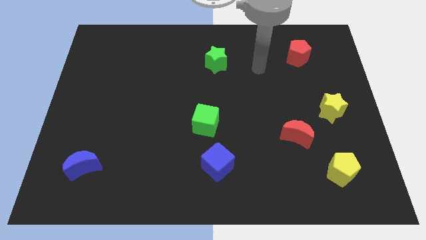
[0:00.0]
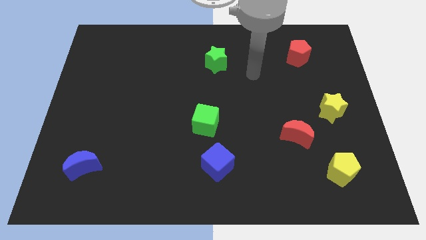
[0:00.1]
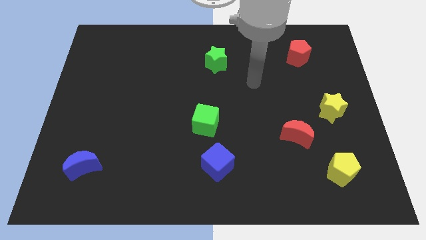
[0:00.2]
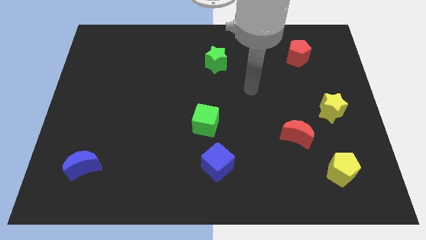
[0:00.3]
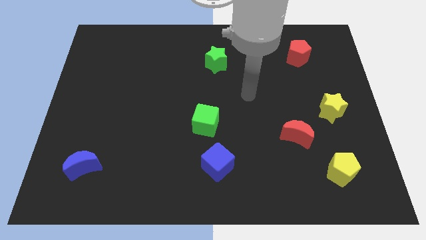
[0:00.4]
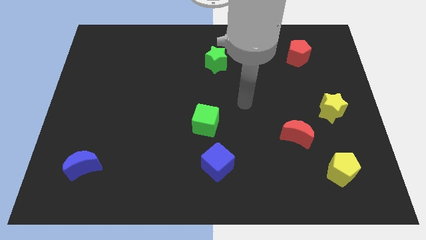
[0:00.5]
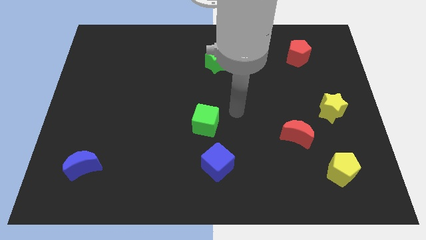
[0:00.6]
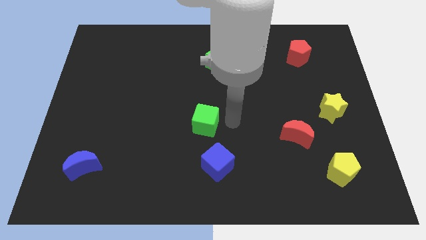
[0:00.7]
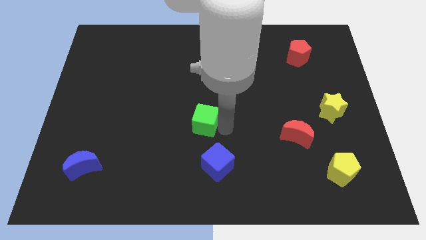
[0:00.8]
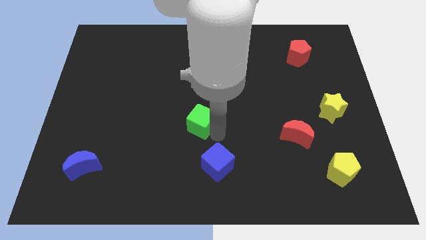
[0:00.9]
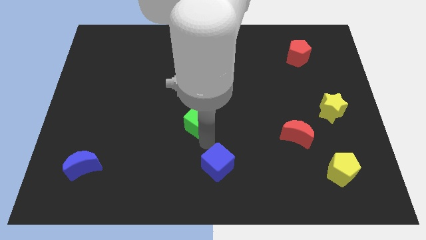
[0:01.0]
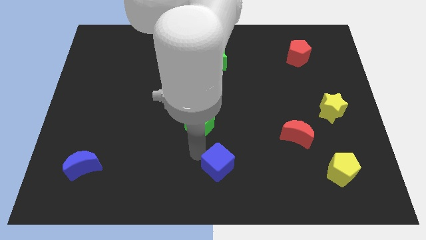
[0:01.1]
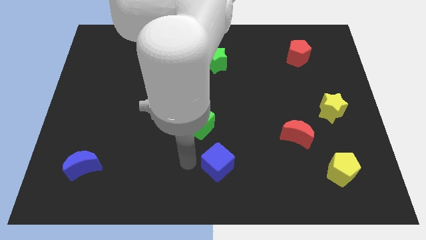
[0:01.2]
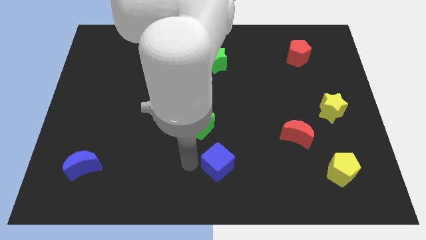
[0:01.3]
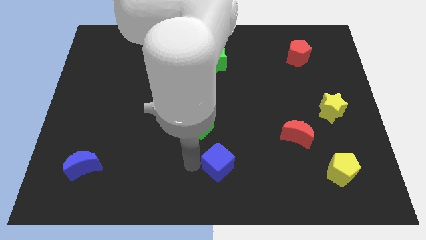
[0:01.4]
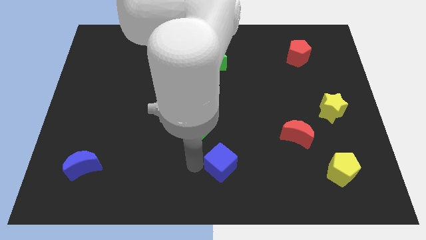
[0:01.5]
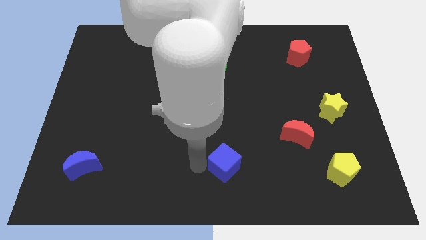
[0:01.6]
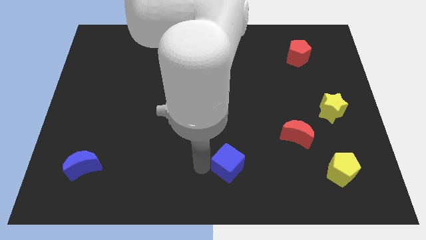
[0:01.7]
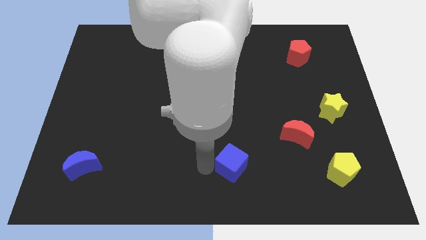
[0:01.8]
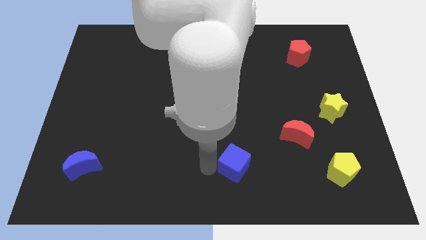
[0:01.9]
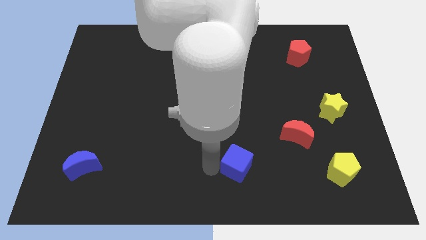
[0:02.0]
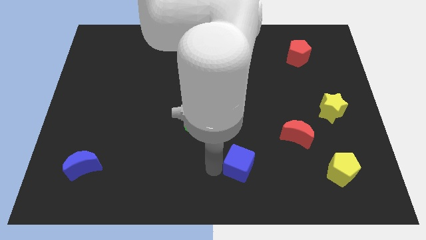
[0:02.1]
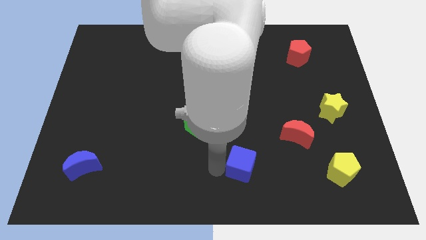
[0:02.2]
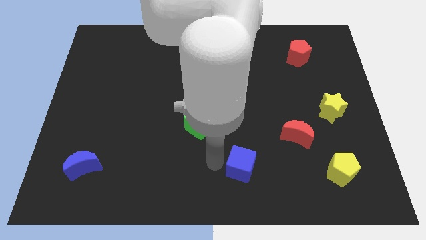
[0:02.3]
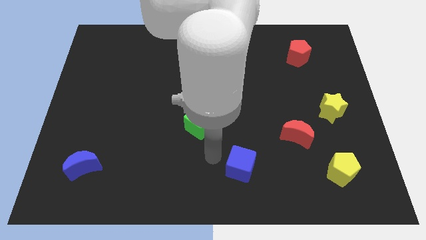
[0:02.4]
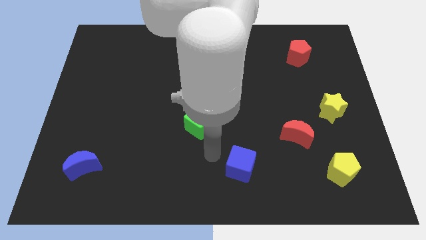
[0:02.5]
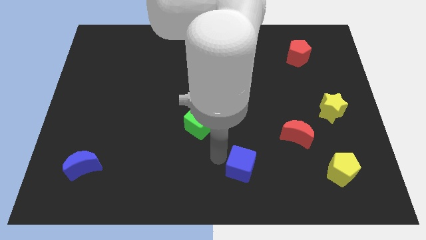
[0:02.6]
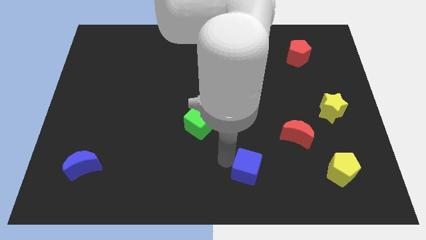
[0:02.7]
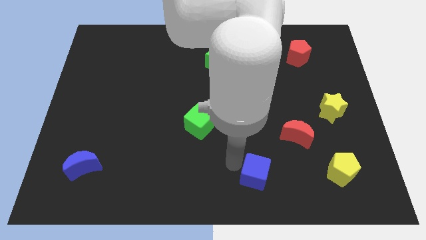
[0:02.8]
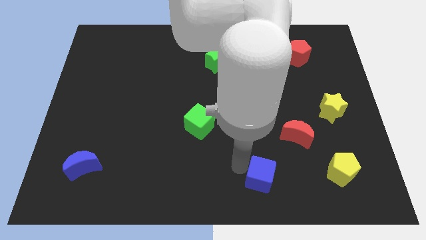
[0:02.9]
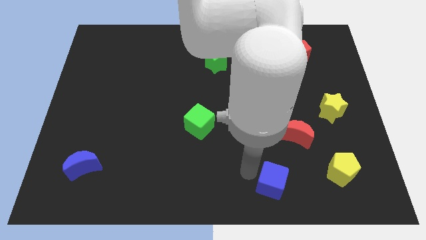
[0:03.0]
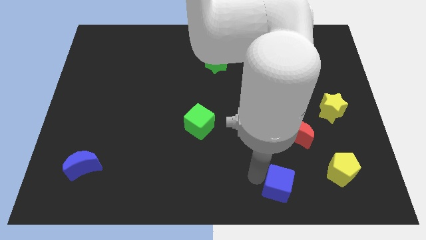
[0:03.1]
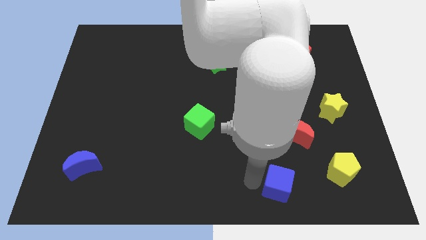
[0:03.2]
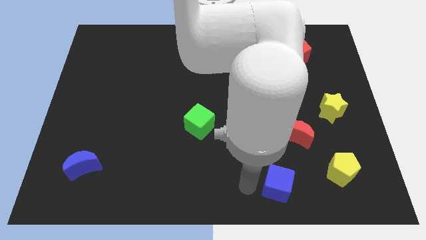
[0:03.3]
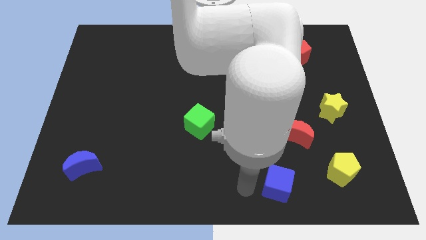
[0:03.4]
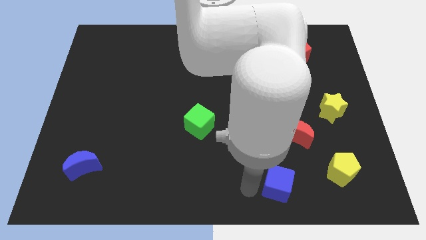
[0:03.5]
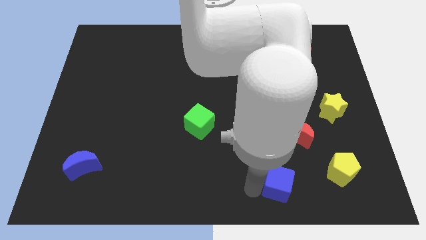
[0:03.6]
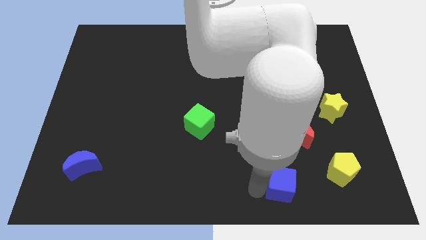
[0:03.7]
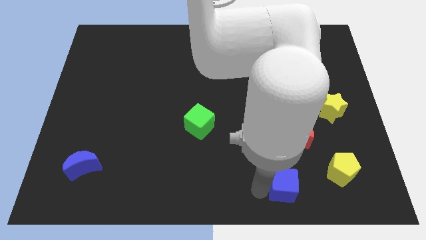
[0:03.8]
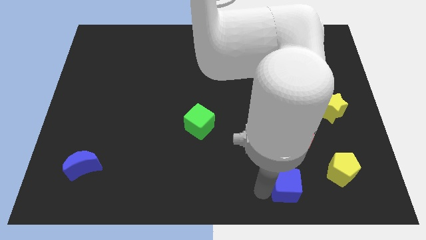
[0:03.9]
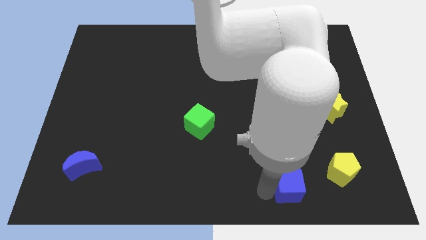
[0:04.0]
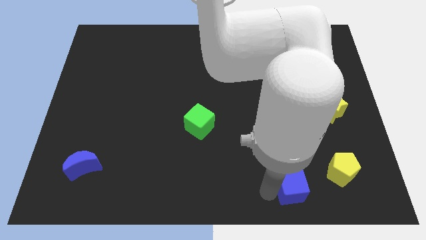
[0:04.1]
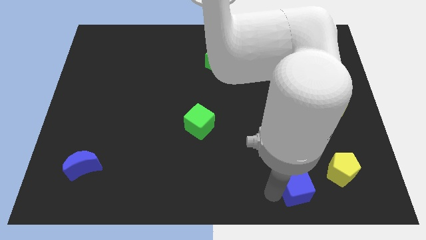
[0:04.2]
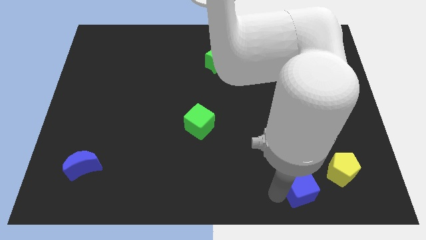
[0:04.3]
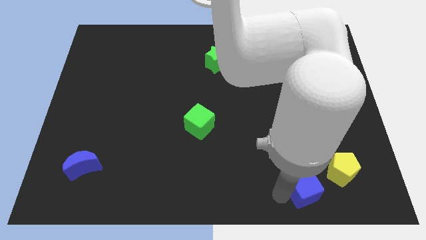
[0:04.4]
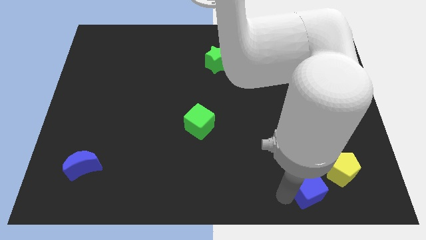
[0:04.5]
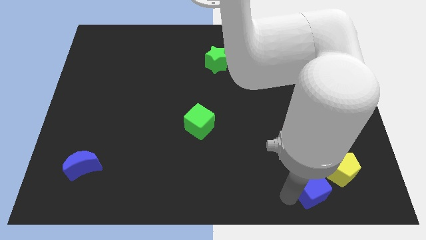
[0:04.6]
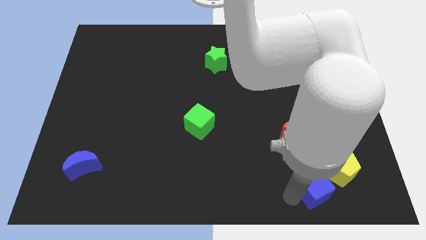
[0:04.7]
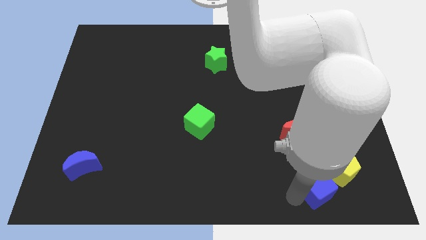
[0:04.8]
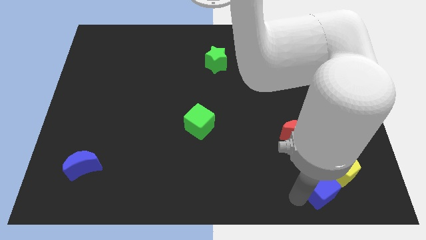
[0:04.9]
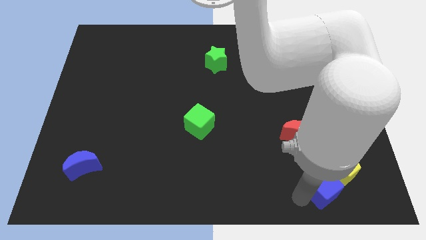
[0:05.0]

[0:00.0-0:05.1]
slide the blue cube close to the yellow pentagon

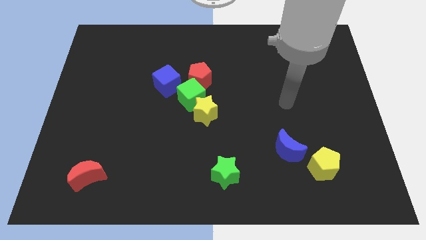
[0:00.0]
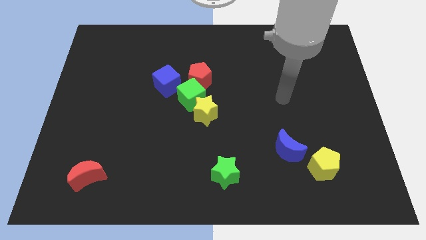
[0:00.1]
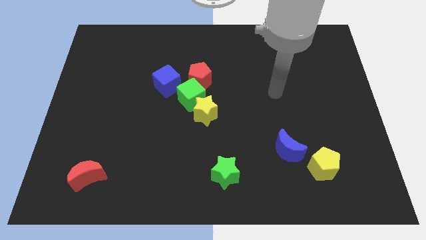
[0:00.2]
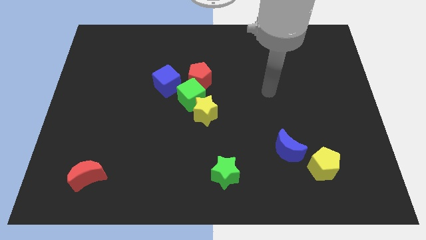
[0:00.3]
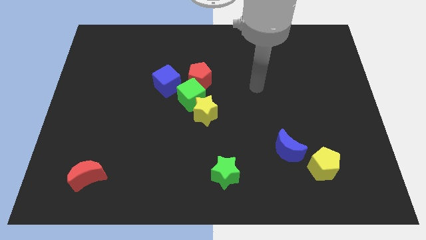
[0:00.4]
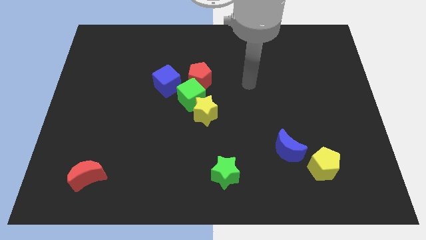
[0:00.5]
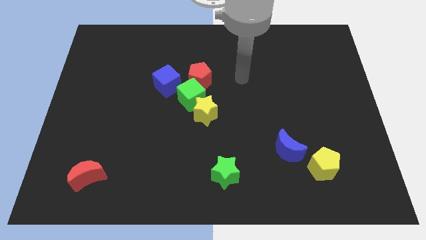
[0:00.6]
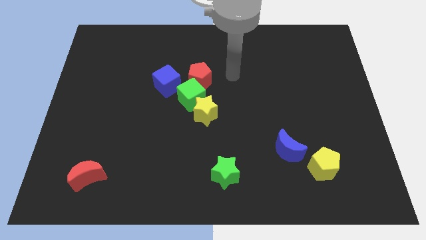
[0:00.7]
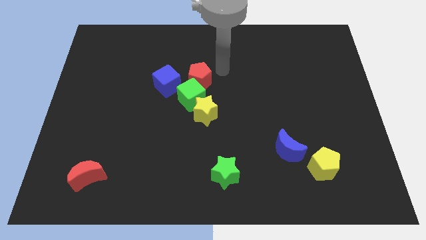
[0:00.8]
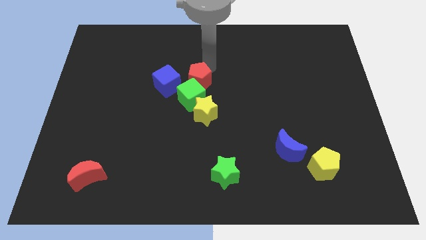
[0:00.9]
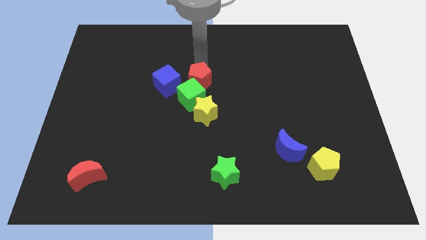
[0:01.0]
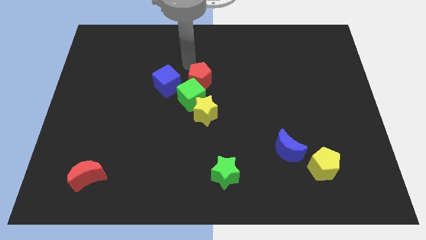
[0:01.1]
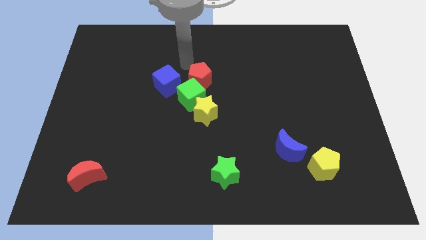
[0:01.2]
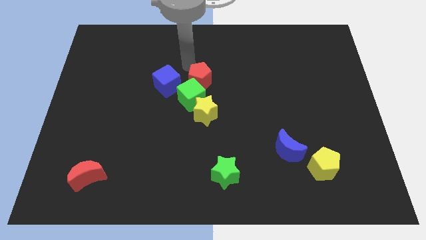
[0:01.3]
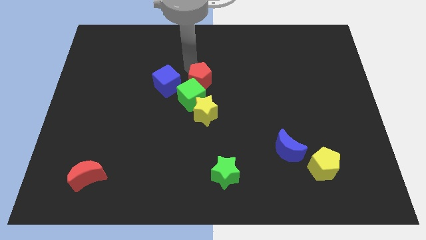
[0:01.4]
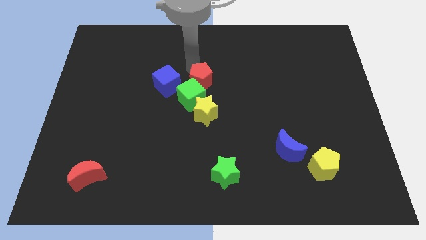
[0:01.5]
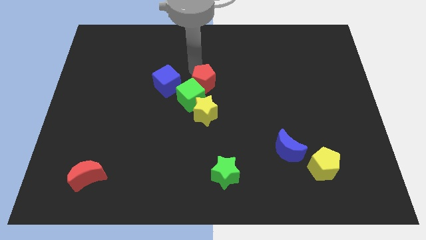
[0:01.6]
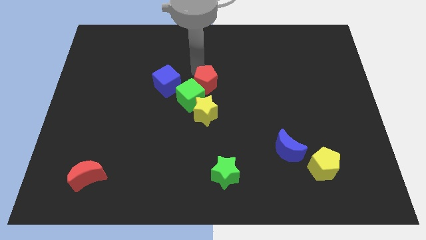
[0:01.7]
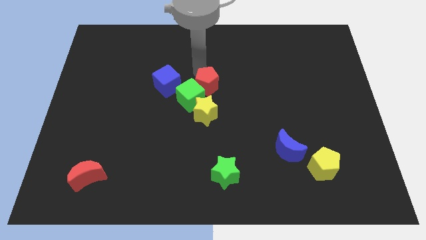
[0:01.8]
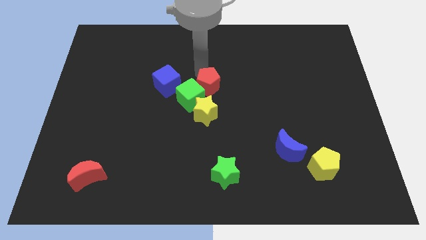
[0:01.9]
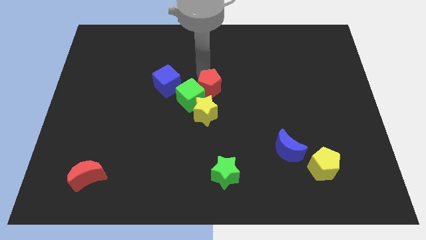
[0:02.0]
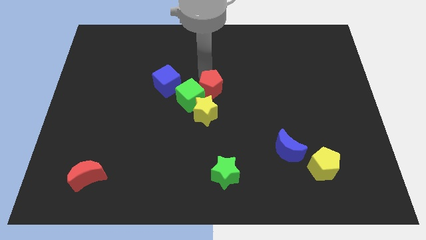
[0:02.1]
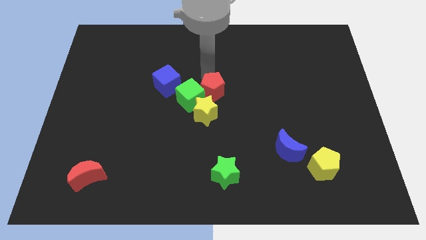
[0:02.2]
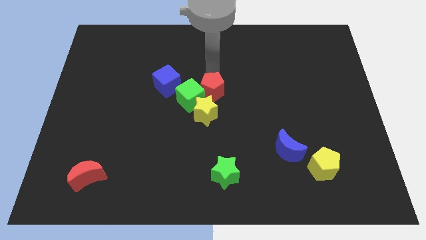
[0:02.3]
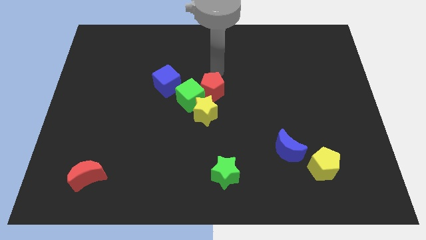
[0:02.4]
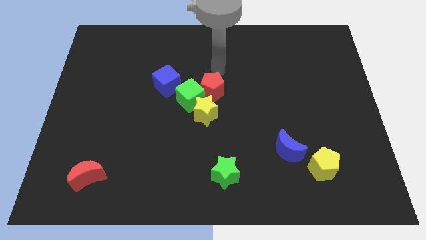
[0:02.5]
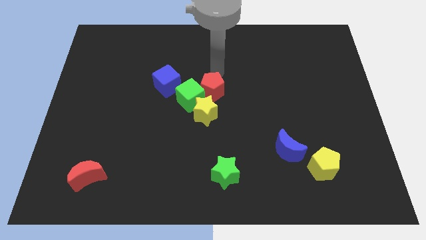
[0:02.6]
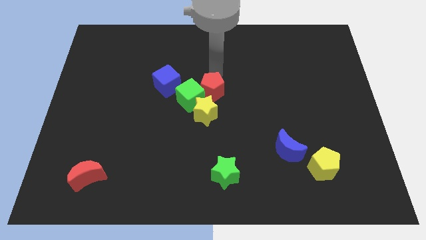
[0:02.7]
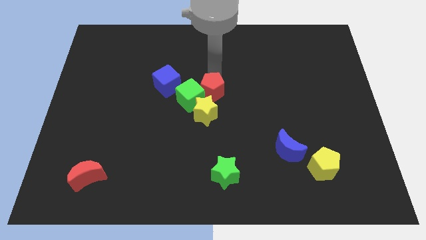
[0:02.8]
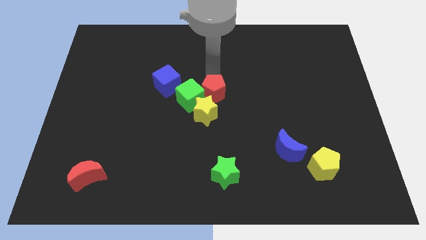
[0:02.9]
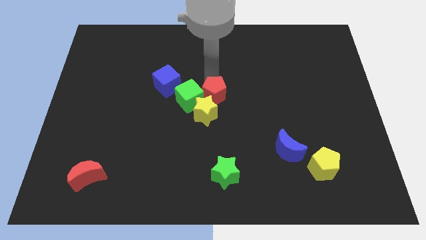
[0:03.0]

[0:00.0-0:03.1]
push the red pentagon to the yellow star
